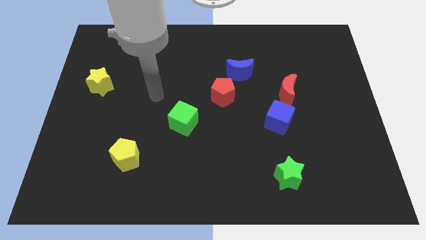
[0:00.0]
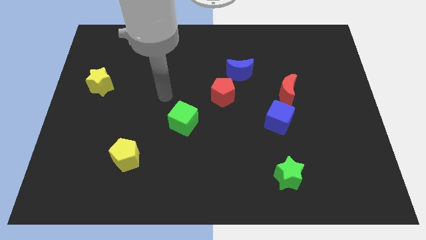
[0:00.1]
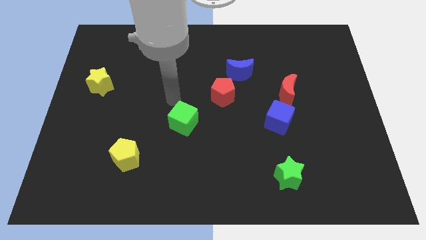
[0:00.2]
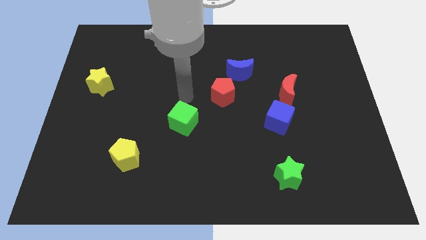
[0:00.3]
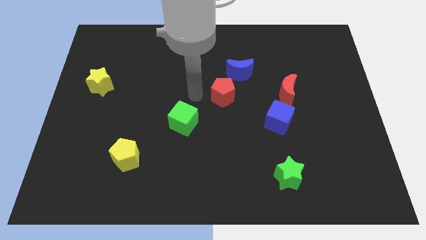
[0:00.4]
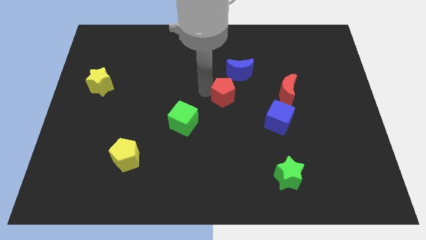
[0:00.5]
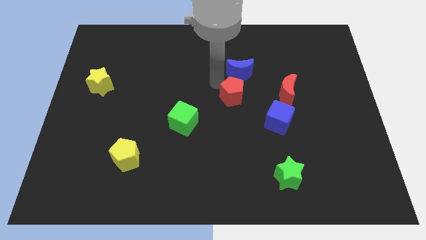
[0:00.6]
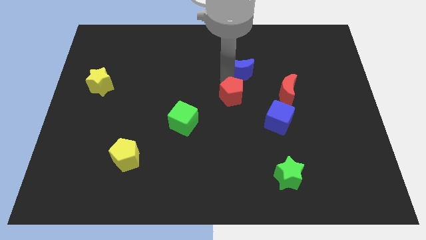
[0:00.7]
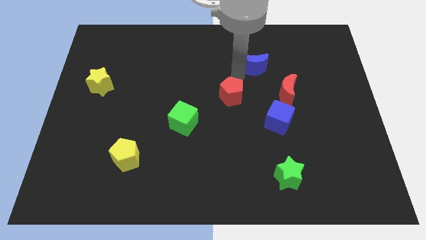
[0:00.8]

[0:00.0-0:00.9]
pull the red pentagon apart from the blue moon

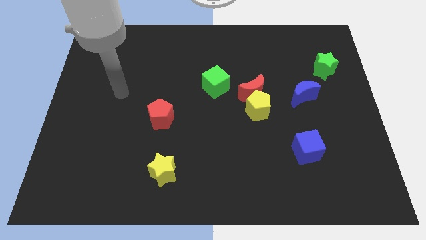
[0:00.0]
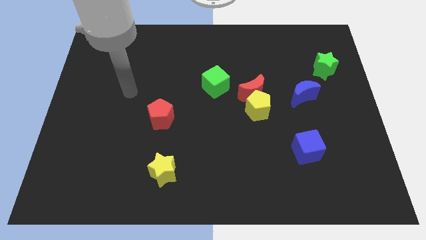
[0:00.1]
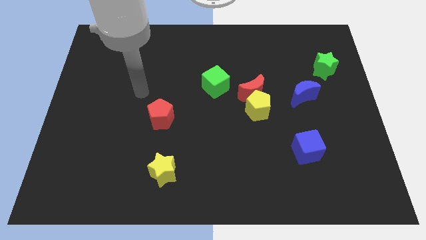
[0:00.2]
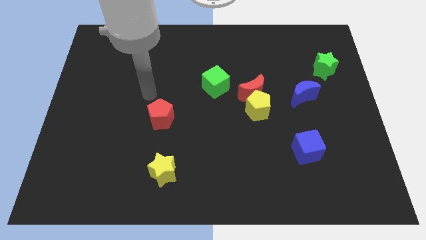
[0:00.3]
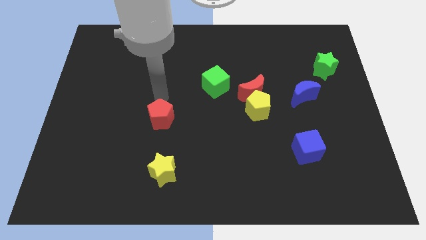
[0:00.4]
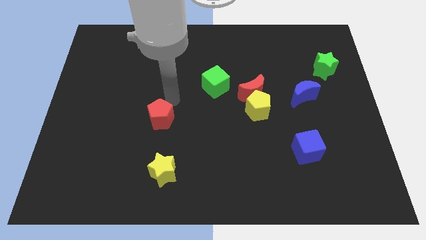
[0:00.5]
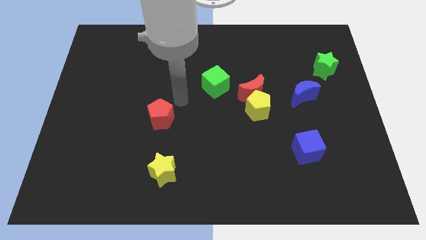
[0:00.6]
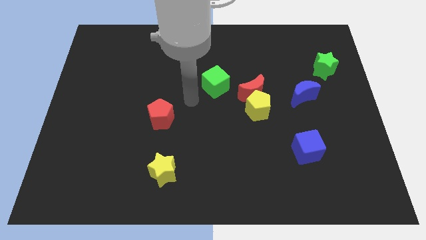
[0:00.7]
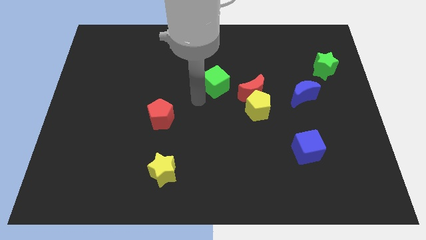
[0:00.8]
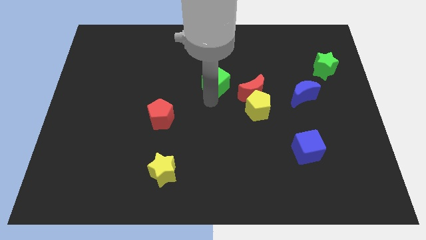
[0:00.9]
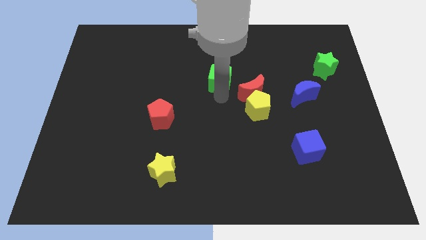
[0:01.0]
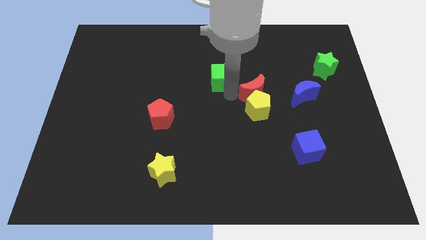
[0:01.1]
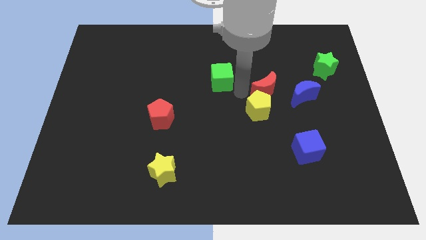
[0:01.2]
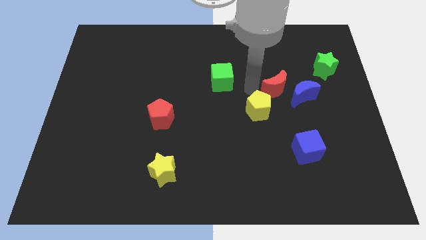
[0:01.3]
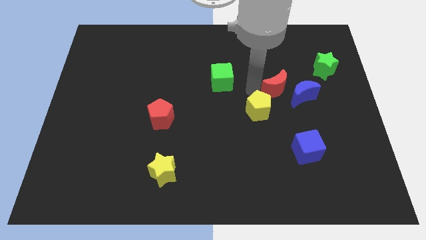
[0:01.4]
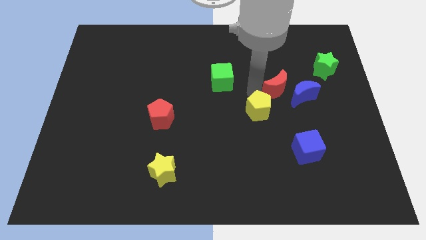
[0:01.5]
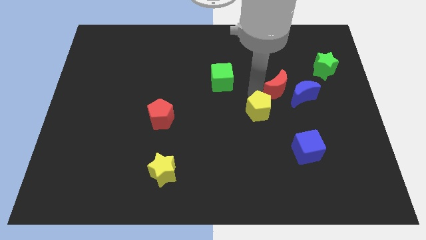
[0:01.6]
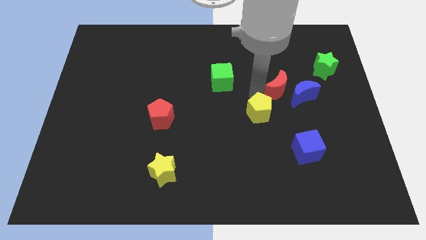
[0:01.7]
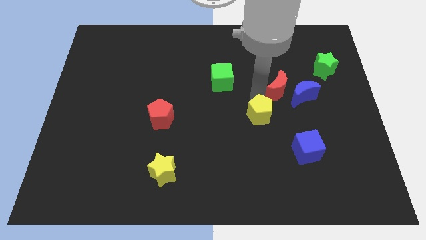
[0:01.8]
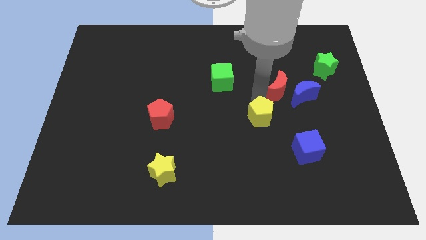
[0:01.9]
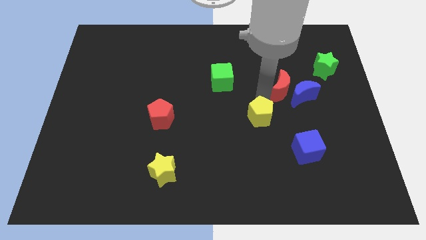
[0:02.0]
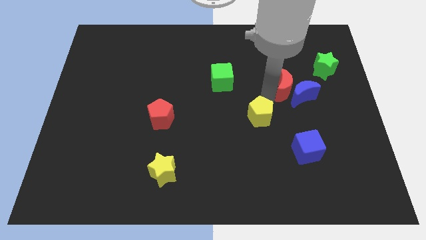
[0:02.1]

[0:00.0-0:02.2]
separate the yellow pentagon from the red moon

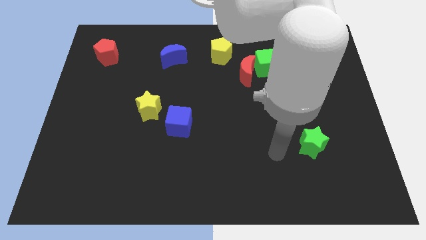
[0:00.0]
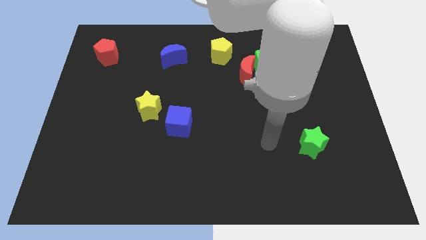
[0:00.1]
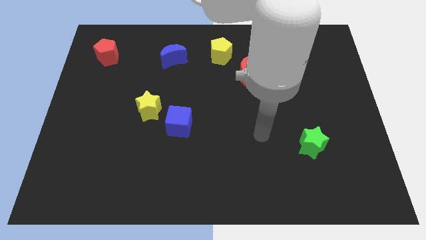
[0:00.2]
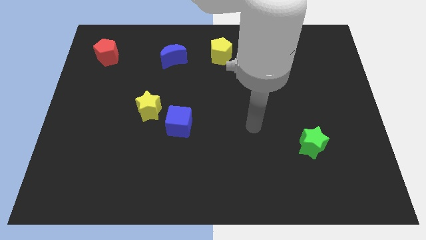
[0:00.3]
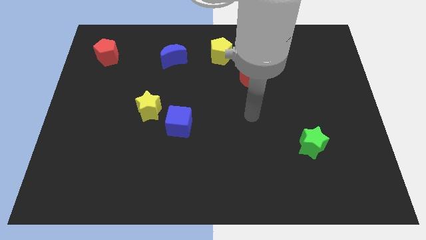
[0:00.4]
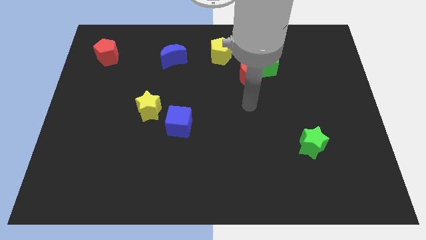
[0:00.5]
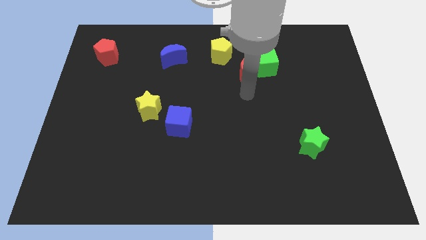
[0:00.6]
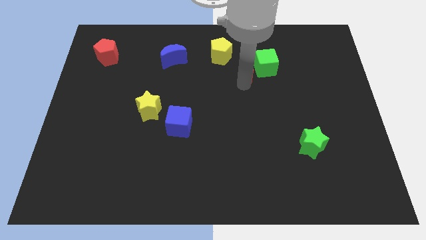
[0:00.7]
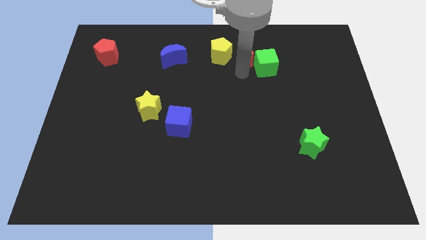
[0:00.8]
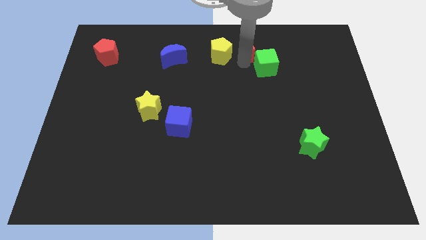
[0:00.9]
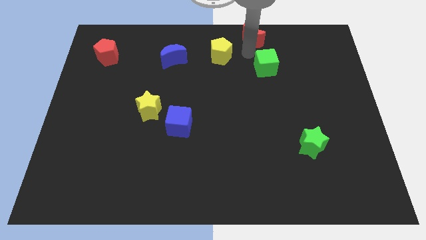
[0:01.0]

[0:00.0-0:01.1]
separate the green cube from the red moon

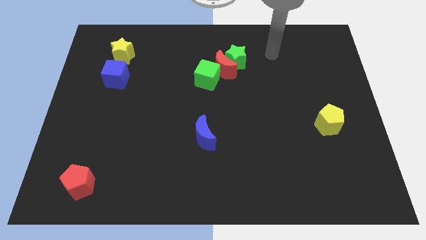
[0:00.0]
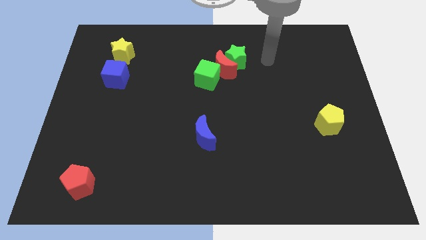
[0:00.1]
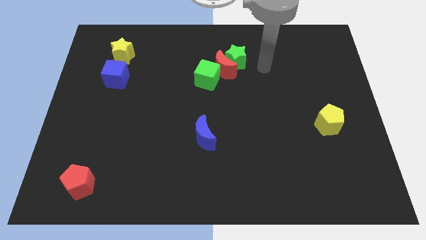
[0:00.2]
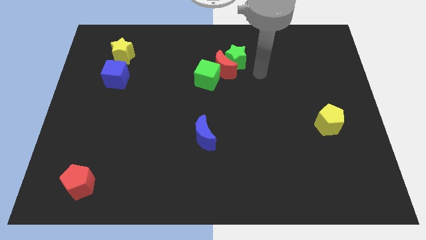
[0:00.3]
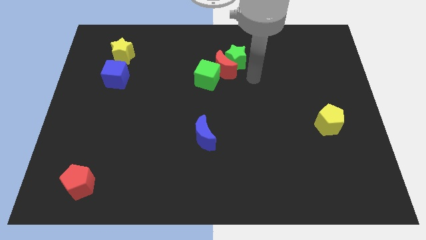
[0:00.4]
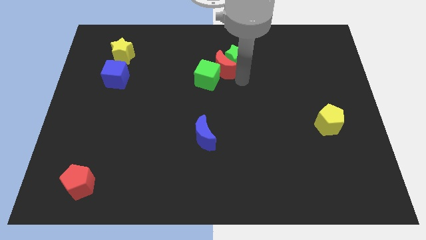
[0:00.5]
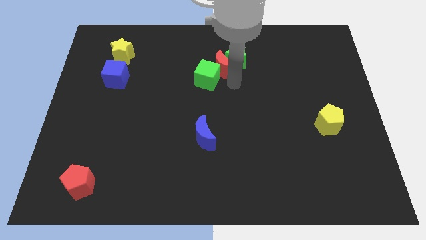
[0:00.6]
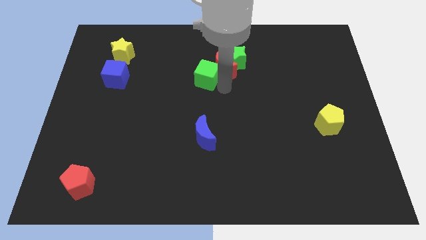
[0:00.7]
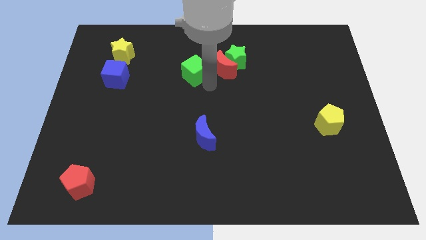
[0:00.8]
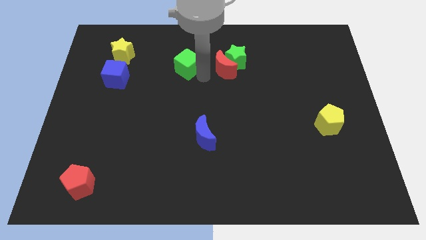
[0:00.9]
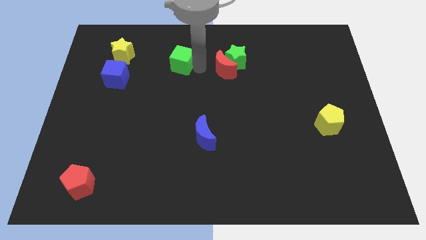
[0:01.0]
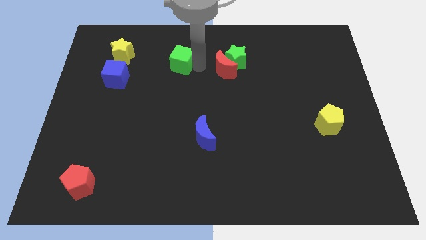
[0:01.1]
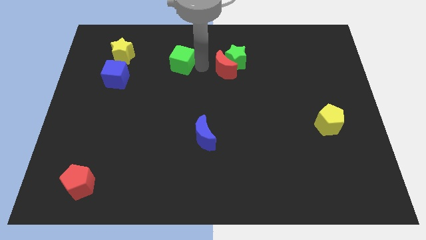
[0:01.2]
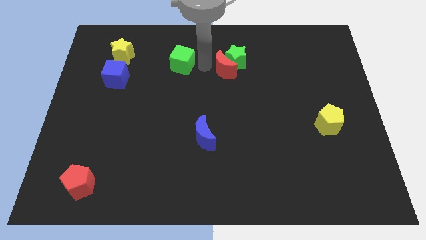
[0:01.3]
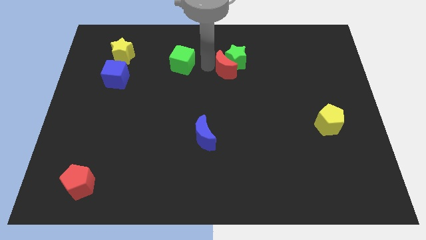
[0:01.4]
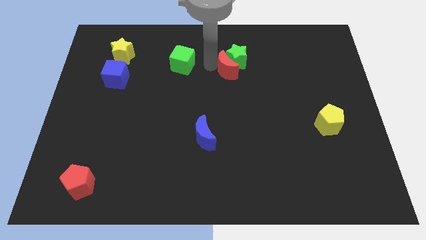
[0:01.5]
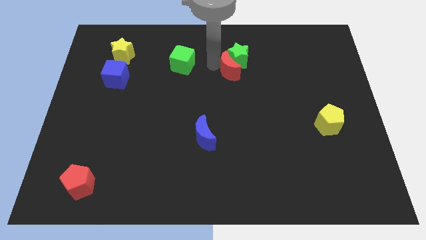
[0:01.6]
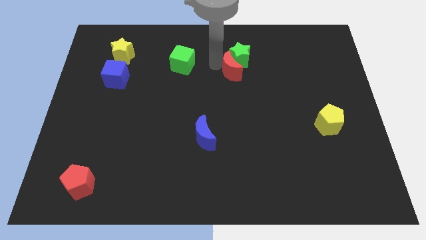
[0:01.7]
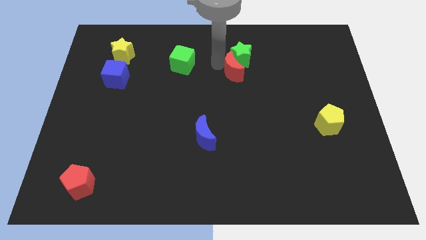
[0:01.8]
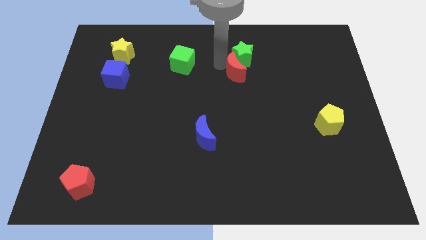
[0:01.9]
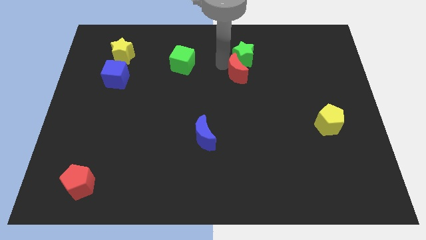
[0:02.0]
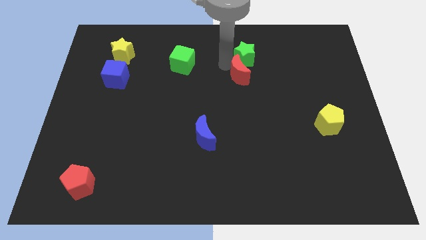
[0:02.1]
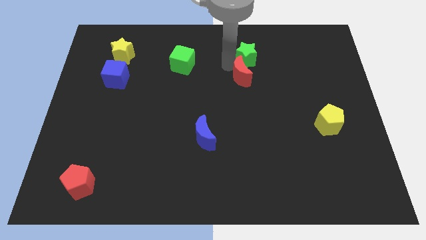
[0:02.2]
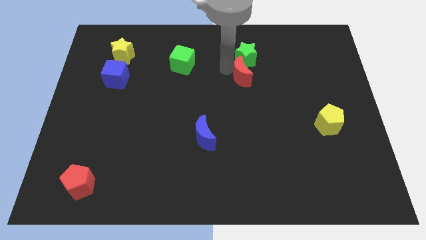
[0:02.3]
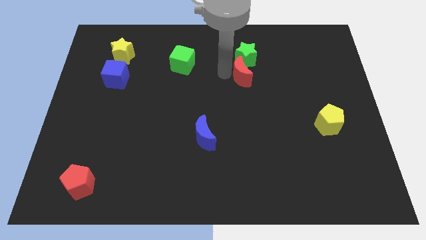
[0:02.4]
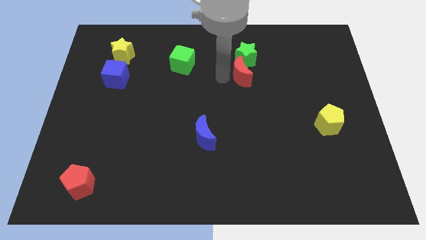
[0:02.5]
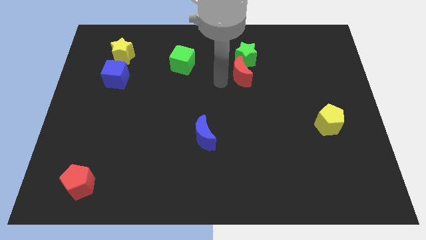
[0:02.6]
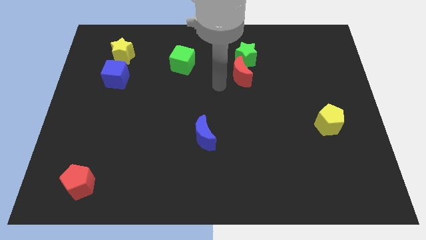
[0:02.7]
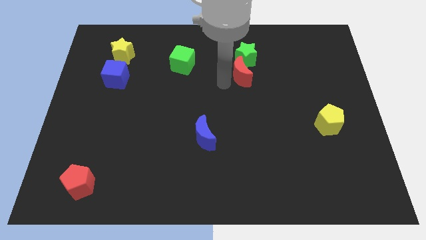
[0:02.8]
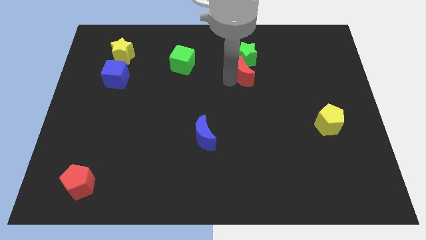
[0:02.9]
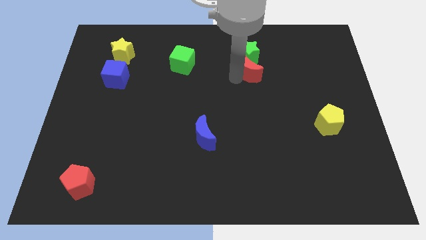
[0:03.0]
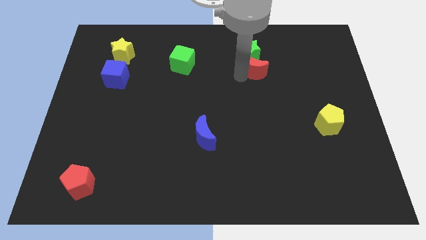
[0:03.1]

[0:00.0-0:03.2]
move the red moon away from the green star and green cube

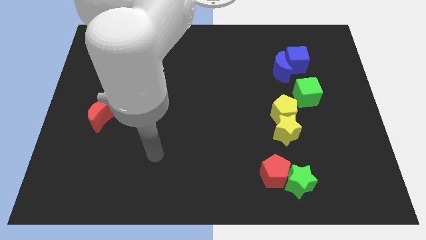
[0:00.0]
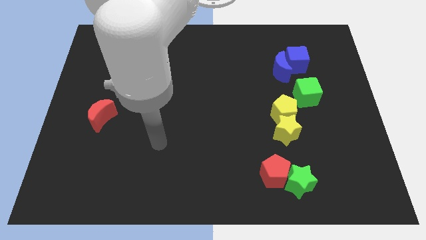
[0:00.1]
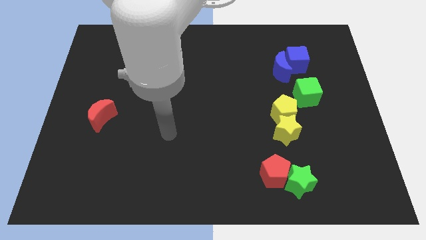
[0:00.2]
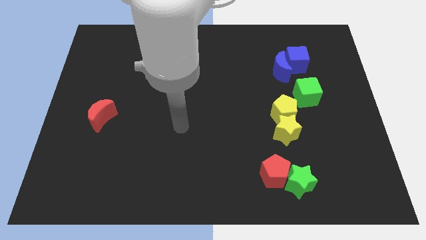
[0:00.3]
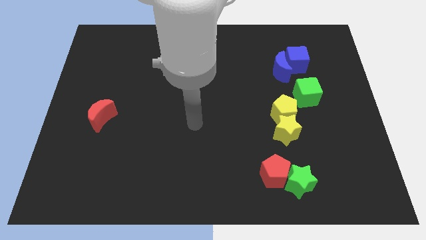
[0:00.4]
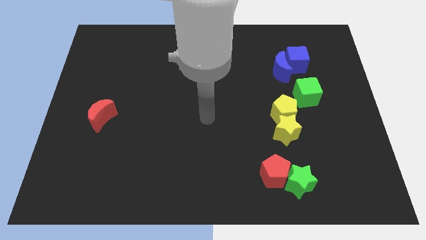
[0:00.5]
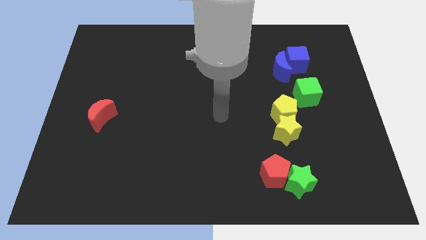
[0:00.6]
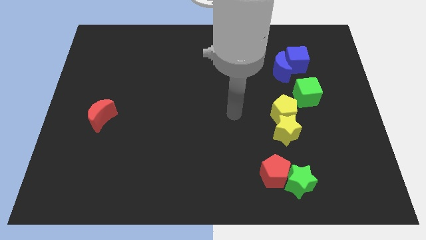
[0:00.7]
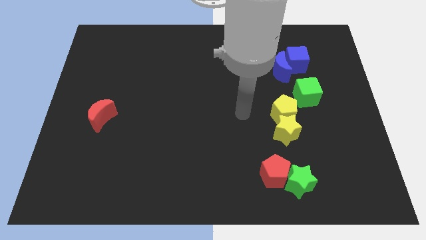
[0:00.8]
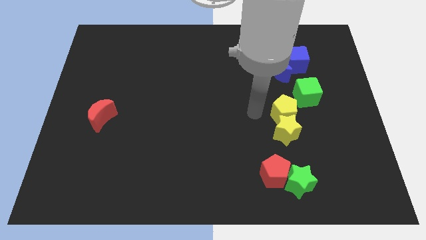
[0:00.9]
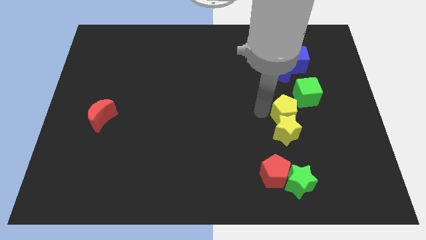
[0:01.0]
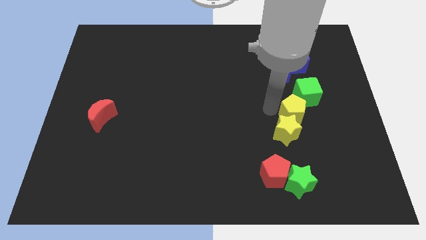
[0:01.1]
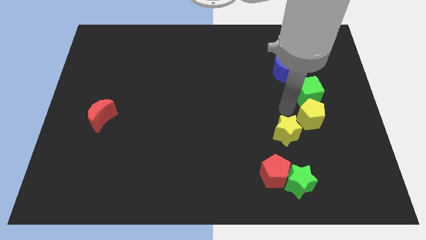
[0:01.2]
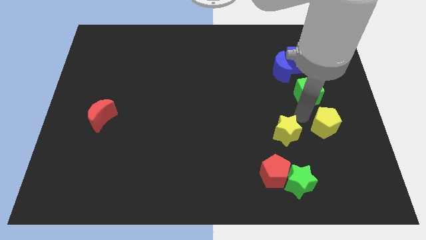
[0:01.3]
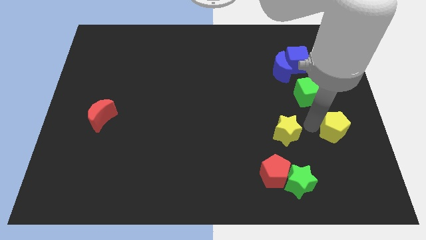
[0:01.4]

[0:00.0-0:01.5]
pull the yellow star apart from the yellow pentagon

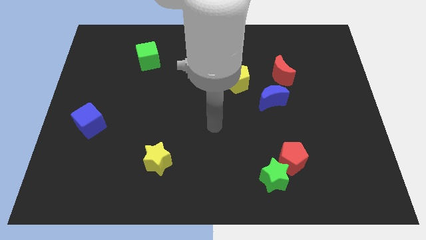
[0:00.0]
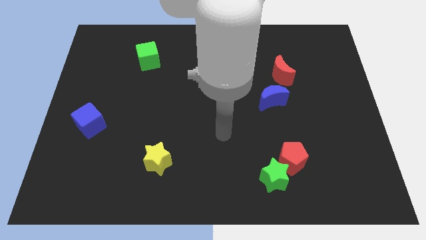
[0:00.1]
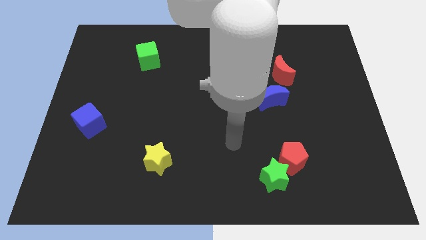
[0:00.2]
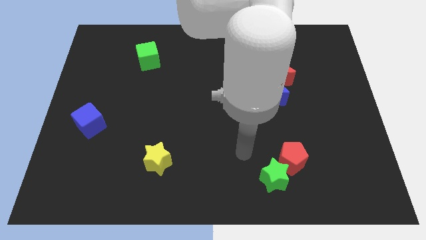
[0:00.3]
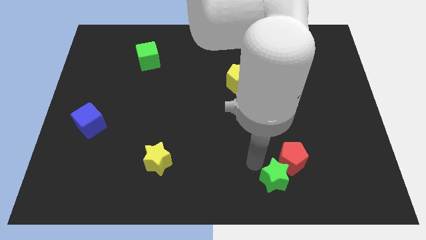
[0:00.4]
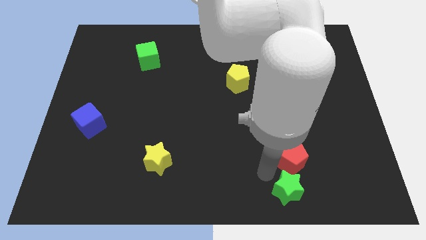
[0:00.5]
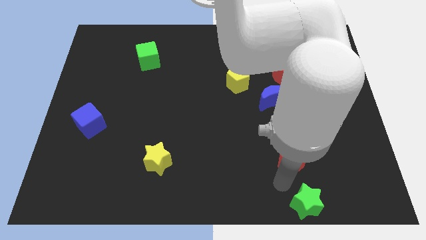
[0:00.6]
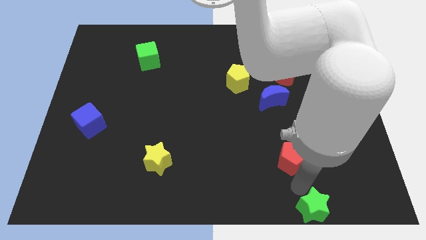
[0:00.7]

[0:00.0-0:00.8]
pull the red pentagon apart from the green star
